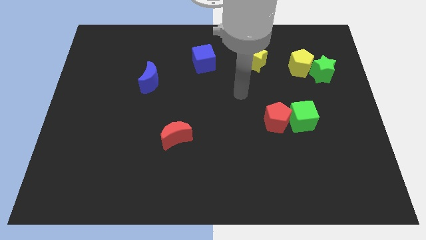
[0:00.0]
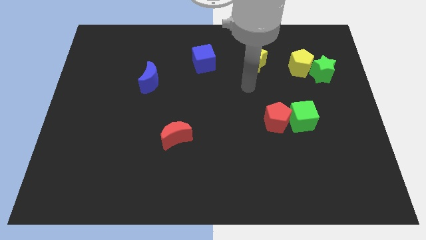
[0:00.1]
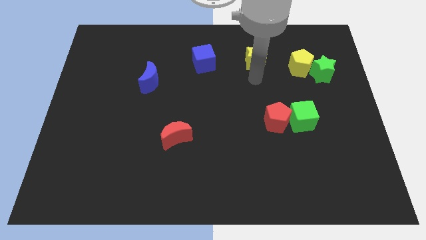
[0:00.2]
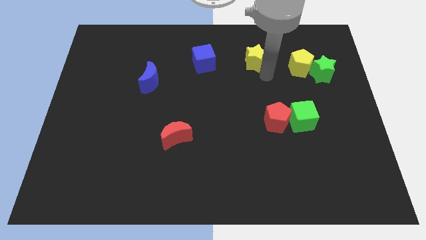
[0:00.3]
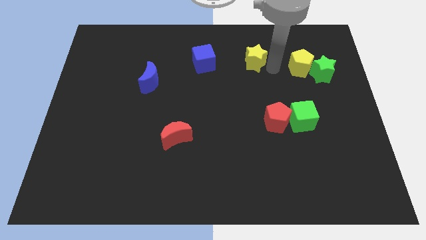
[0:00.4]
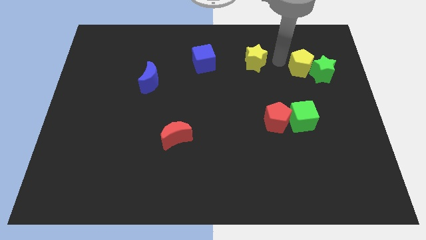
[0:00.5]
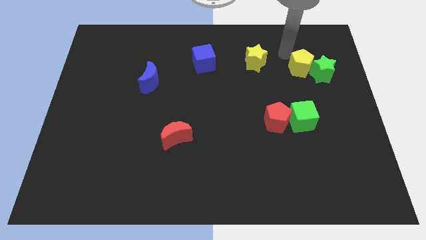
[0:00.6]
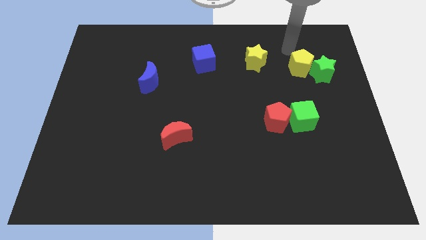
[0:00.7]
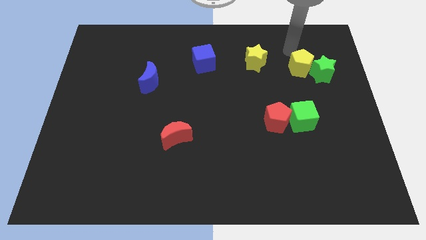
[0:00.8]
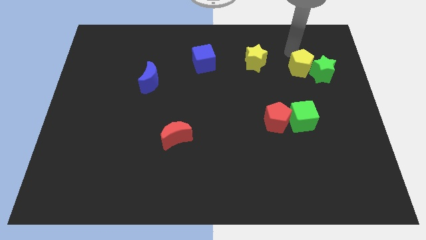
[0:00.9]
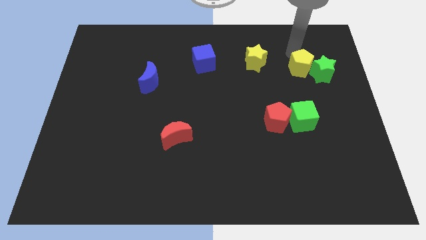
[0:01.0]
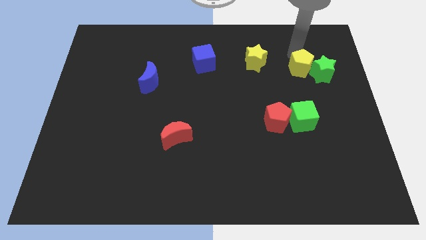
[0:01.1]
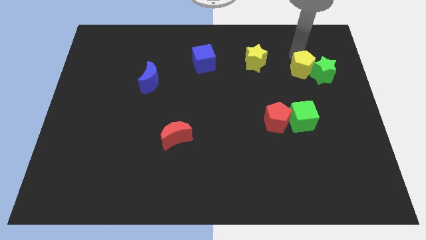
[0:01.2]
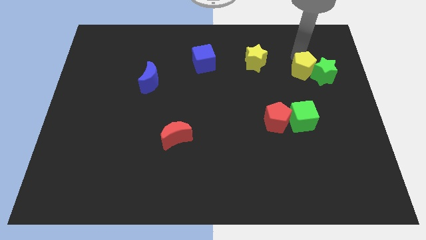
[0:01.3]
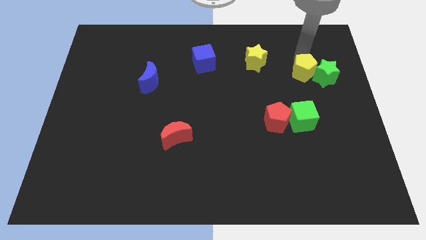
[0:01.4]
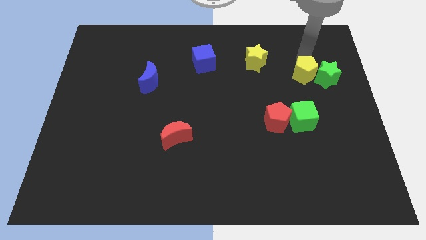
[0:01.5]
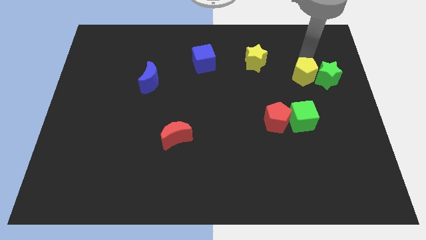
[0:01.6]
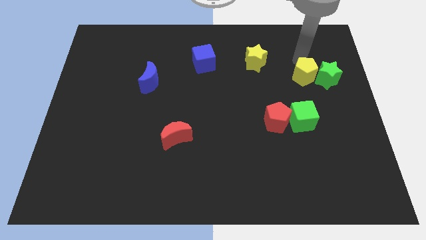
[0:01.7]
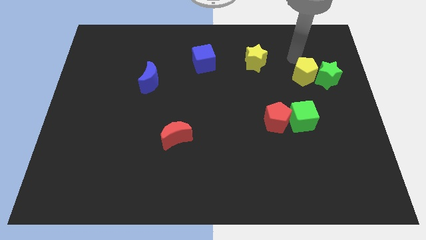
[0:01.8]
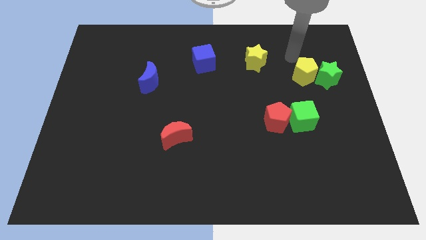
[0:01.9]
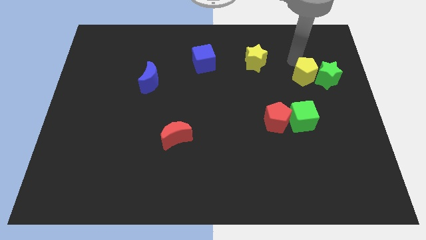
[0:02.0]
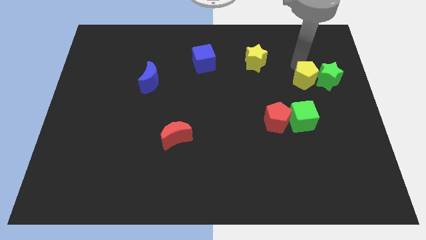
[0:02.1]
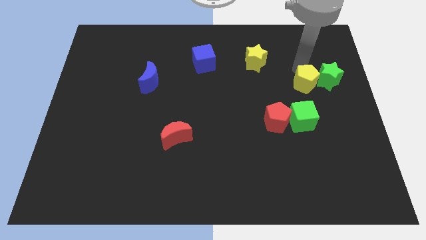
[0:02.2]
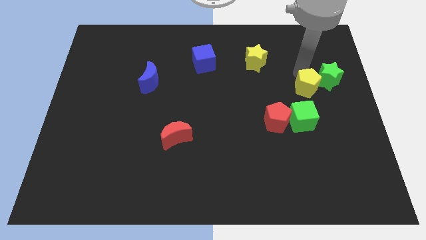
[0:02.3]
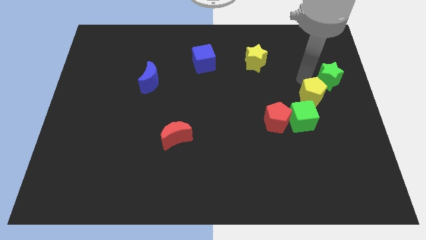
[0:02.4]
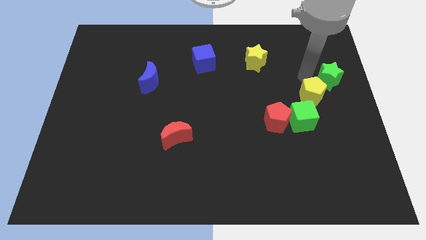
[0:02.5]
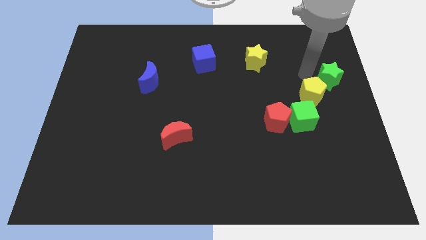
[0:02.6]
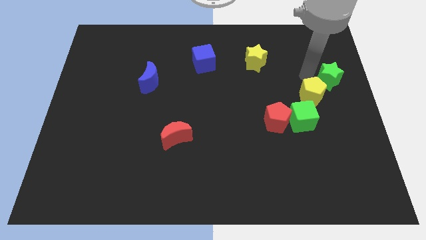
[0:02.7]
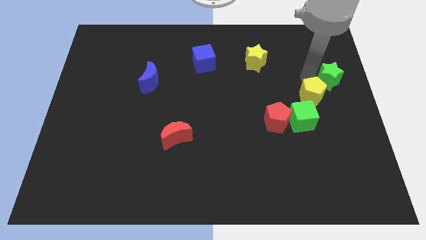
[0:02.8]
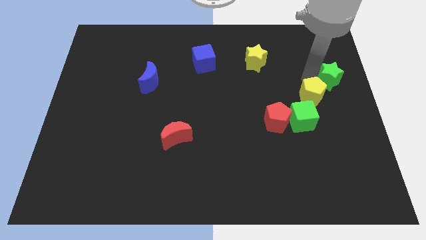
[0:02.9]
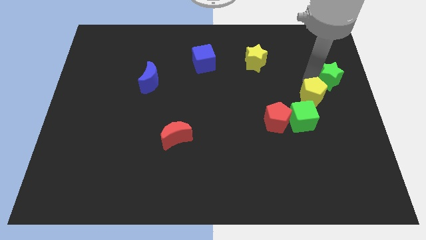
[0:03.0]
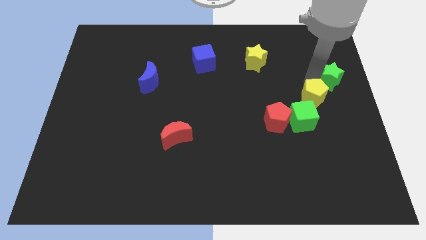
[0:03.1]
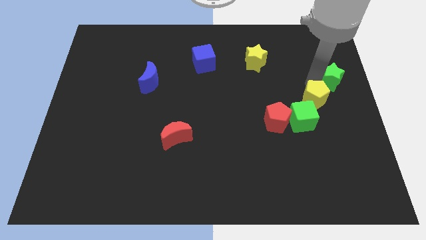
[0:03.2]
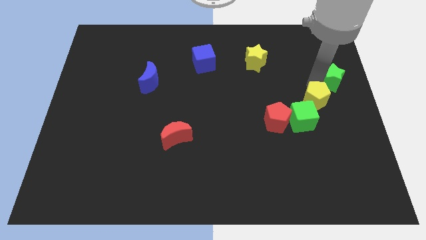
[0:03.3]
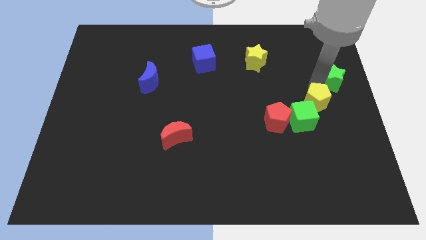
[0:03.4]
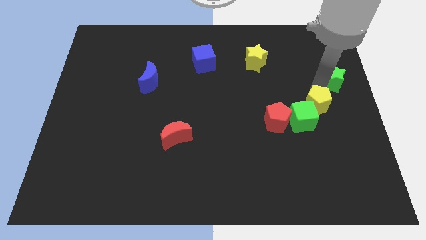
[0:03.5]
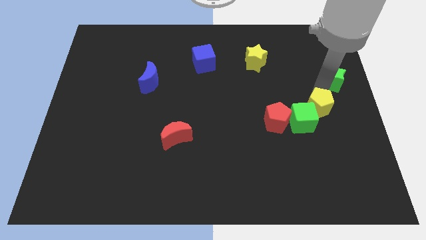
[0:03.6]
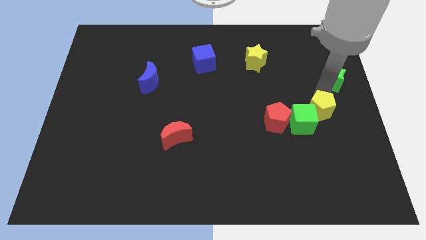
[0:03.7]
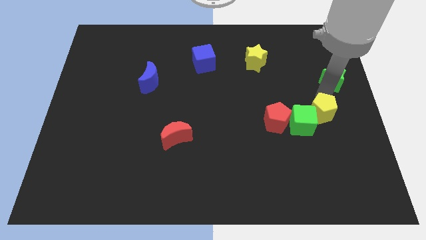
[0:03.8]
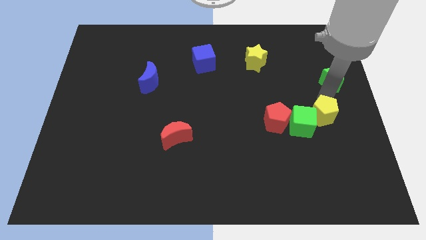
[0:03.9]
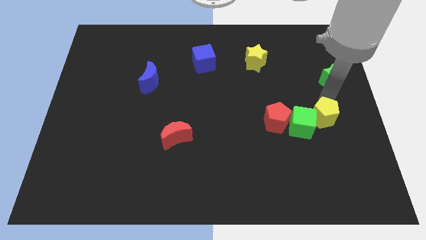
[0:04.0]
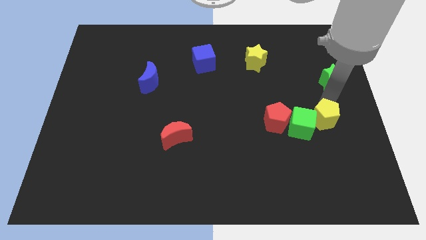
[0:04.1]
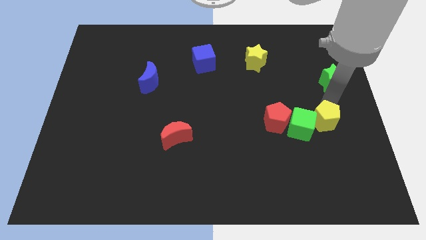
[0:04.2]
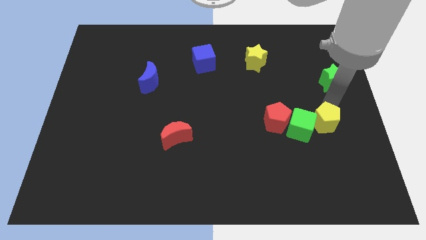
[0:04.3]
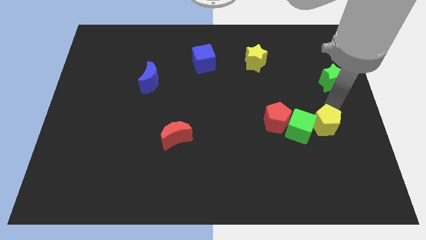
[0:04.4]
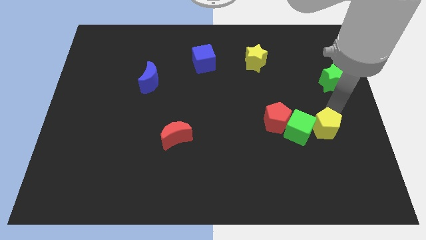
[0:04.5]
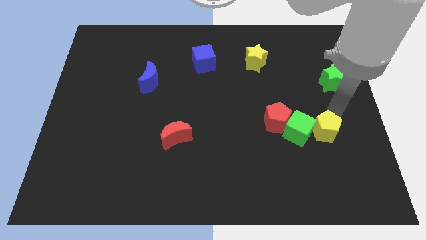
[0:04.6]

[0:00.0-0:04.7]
move the yellow pentagon down

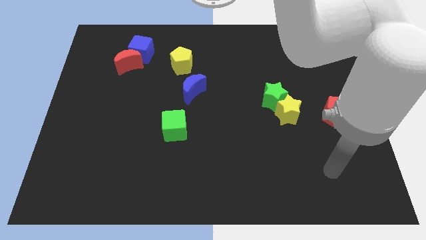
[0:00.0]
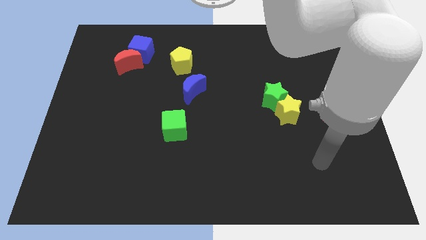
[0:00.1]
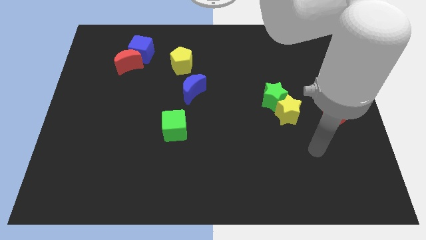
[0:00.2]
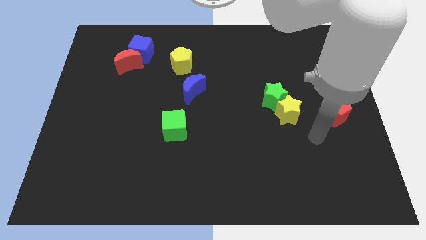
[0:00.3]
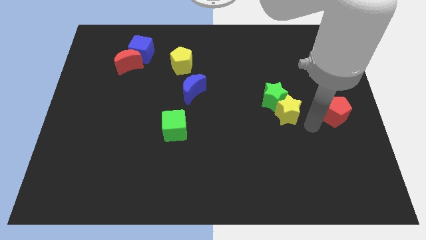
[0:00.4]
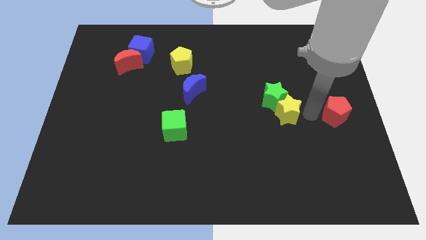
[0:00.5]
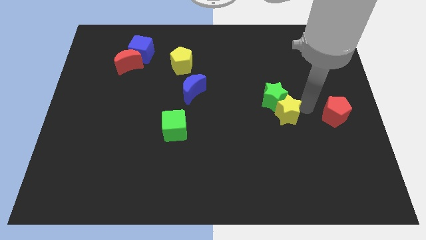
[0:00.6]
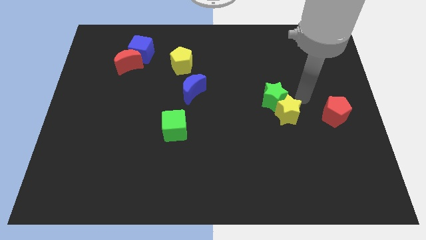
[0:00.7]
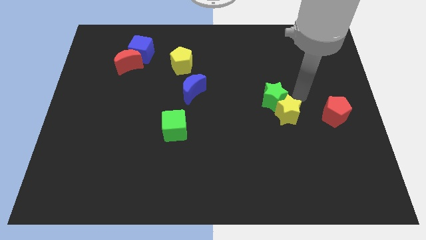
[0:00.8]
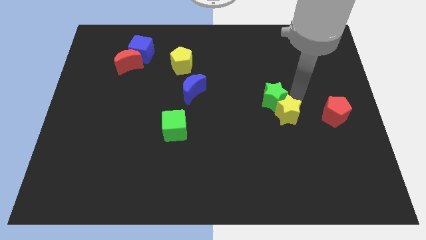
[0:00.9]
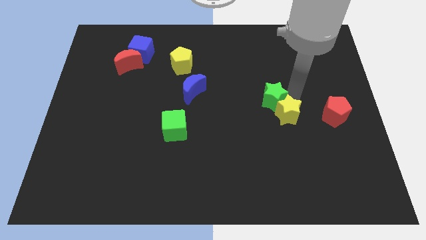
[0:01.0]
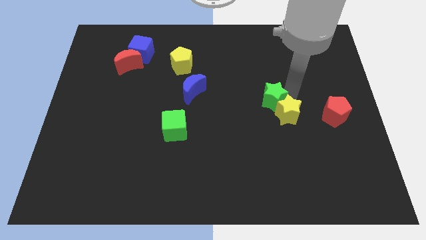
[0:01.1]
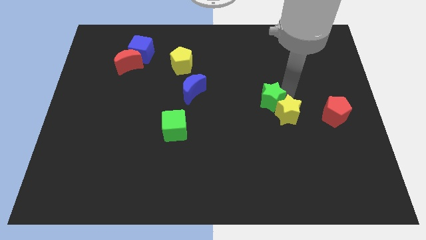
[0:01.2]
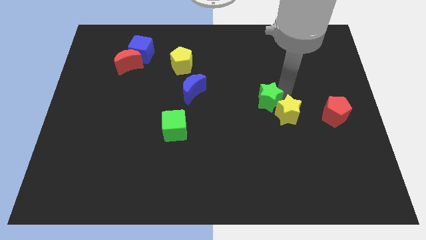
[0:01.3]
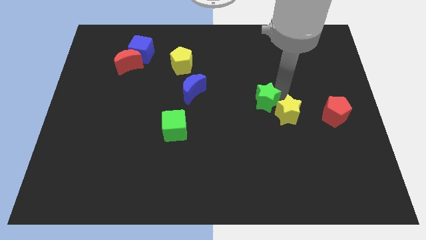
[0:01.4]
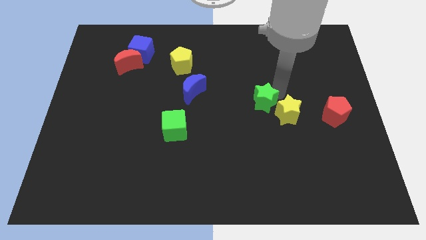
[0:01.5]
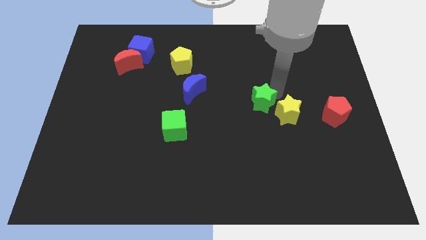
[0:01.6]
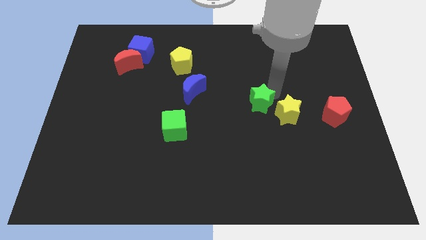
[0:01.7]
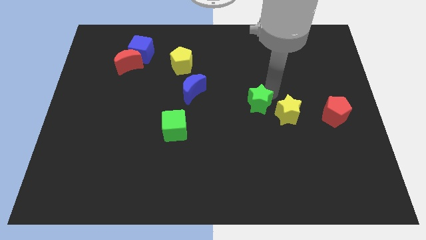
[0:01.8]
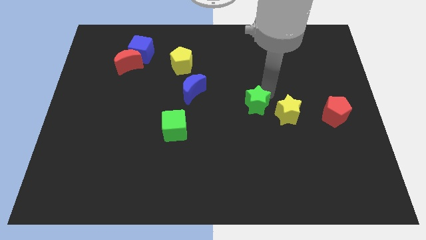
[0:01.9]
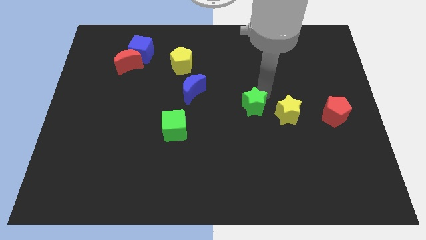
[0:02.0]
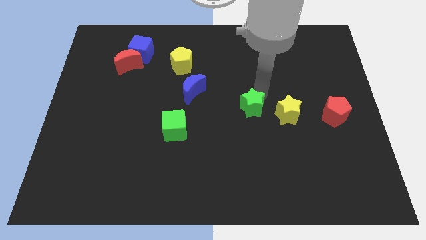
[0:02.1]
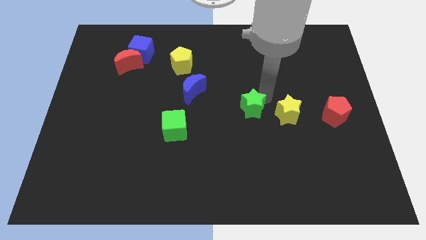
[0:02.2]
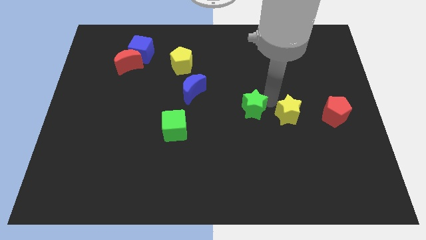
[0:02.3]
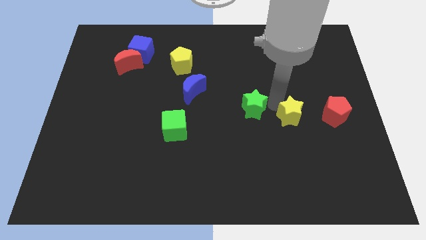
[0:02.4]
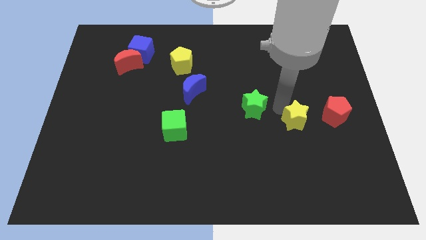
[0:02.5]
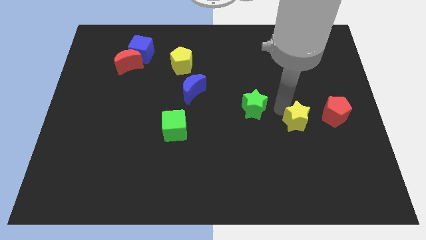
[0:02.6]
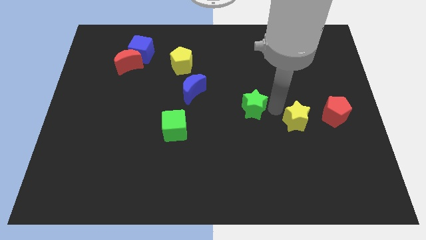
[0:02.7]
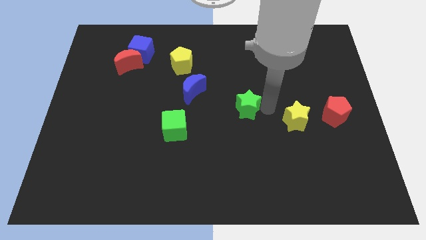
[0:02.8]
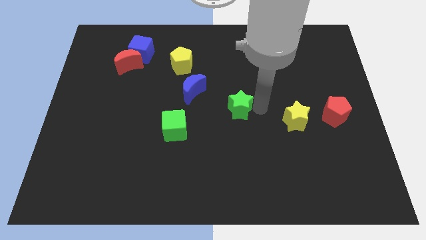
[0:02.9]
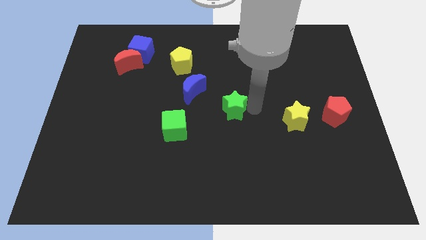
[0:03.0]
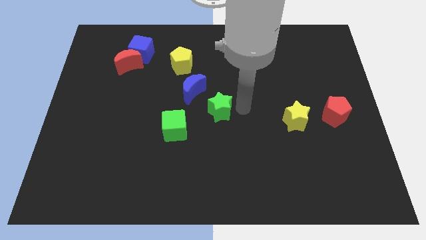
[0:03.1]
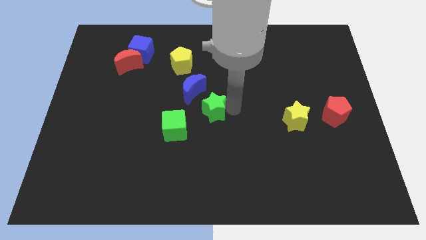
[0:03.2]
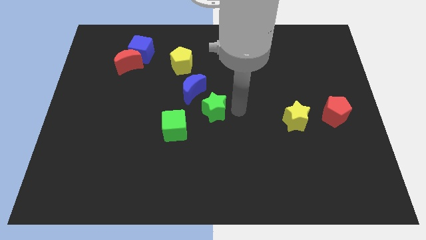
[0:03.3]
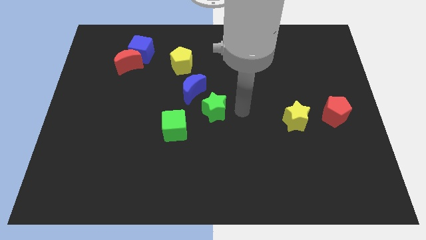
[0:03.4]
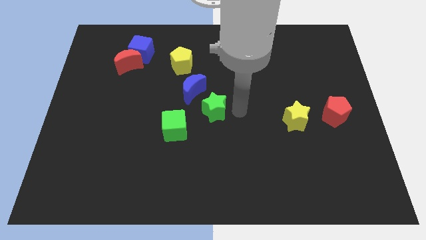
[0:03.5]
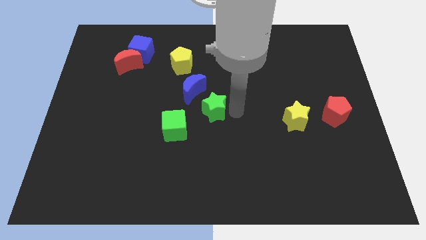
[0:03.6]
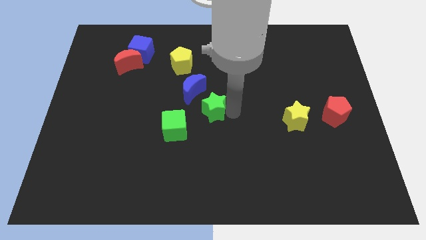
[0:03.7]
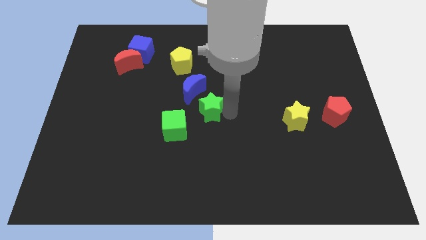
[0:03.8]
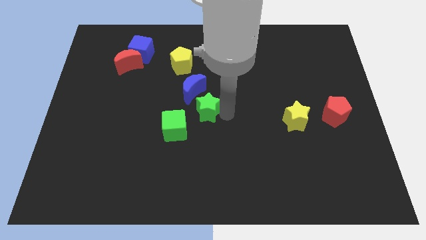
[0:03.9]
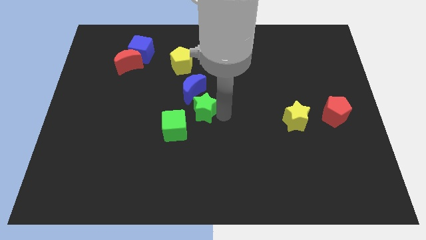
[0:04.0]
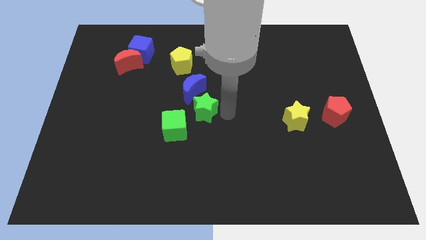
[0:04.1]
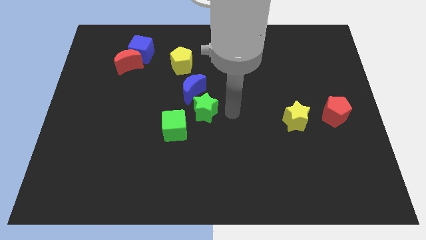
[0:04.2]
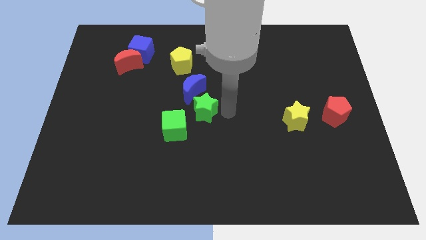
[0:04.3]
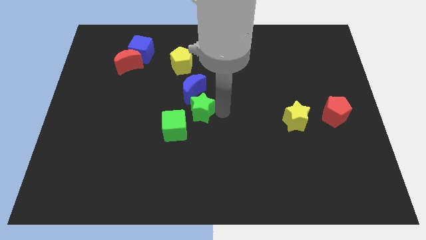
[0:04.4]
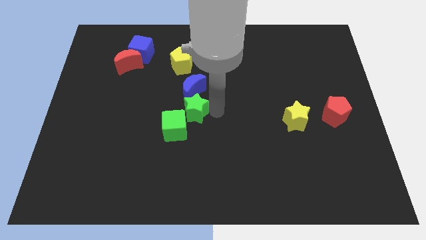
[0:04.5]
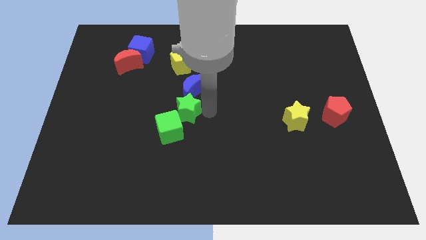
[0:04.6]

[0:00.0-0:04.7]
push the green star left
